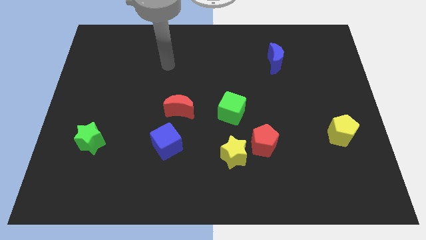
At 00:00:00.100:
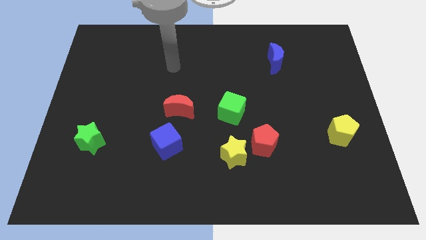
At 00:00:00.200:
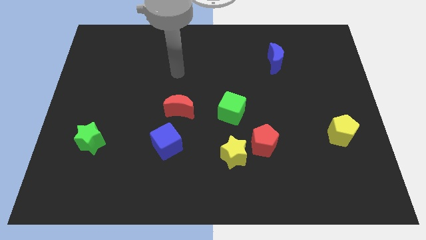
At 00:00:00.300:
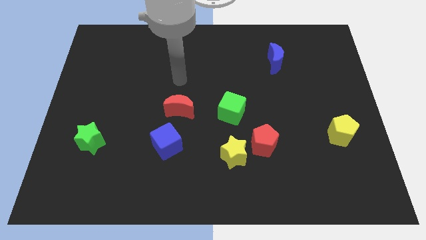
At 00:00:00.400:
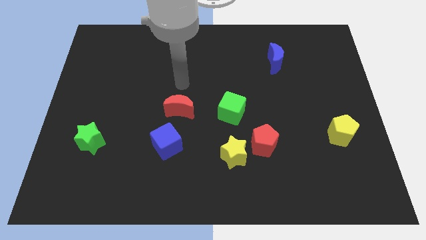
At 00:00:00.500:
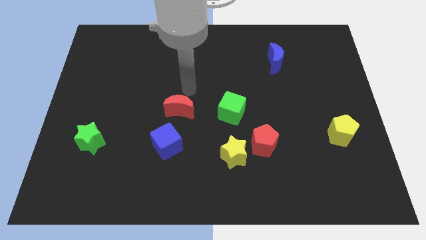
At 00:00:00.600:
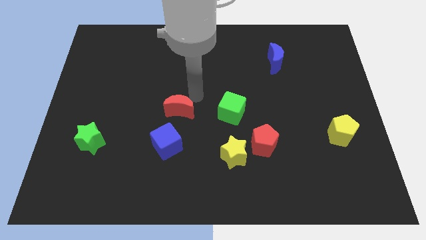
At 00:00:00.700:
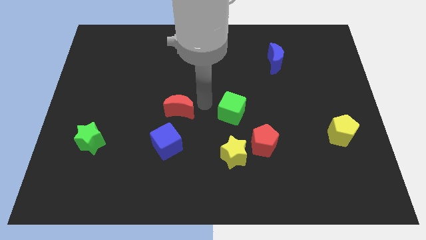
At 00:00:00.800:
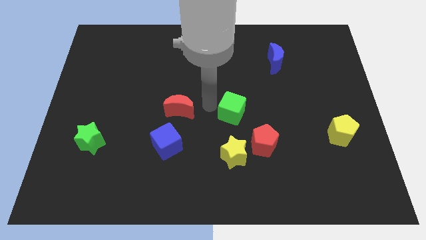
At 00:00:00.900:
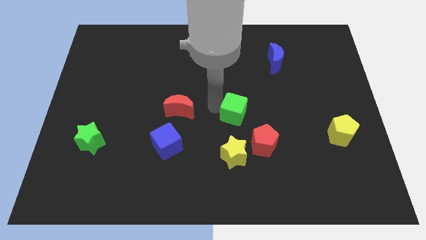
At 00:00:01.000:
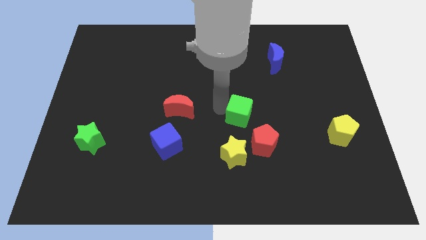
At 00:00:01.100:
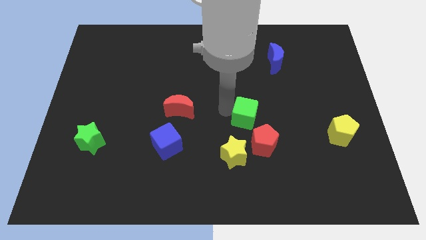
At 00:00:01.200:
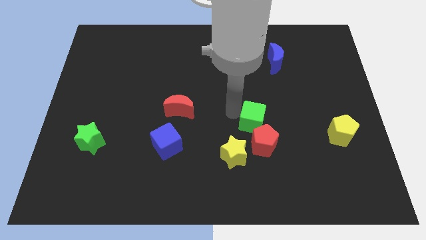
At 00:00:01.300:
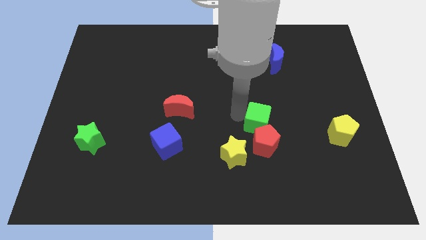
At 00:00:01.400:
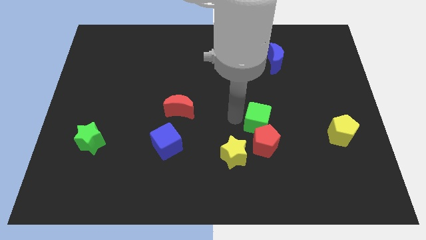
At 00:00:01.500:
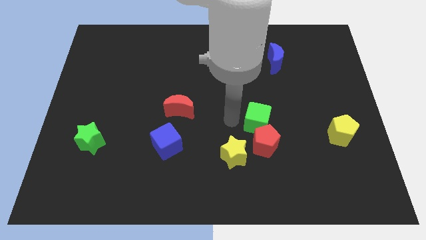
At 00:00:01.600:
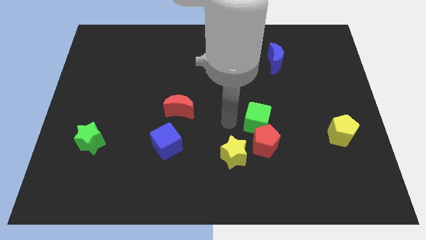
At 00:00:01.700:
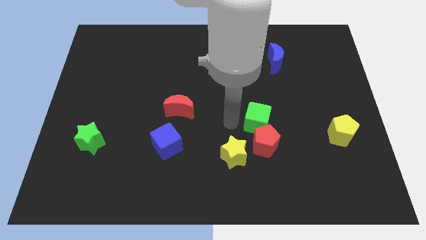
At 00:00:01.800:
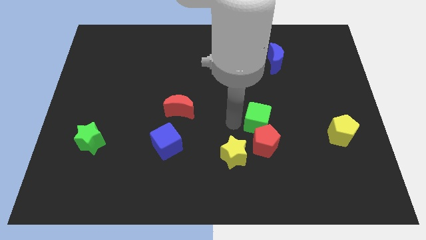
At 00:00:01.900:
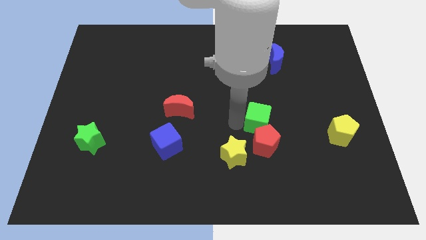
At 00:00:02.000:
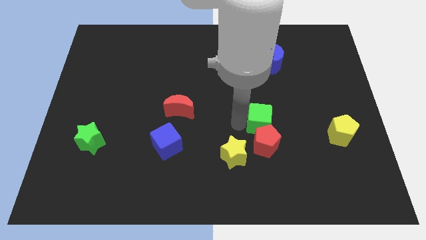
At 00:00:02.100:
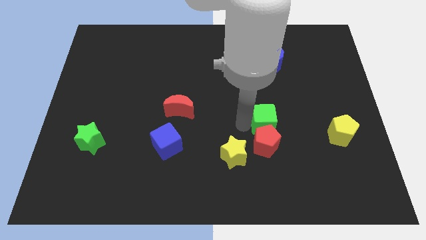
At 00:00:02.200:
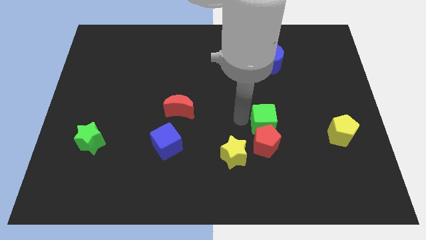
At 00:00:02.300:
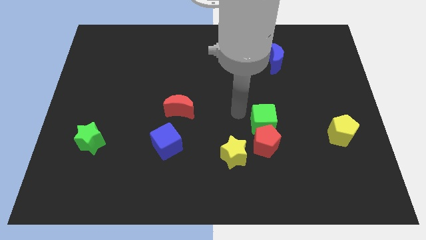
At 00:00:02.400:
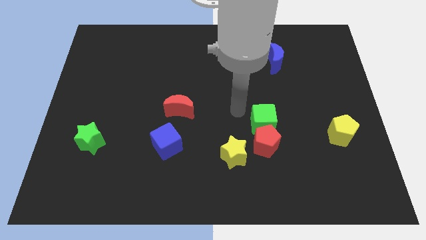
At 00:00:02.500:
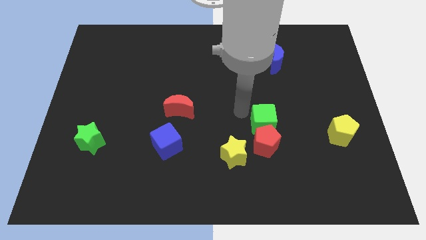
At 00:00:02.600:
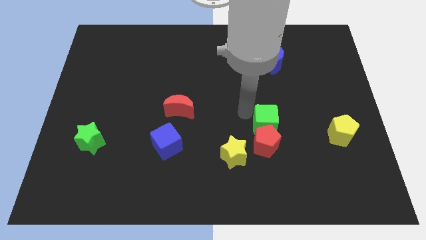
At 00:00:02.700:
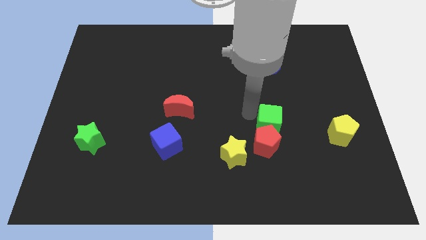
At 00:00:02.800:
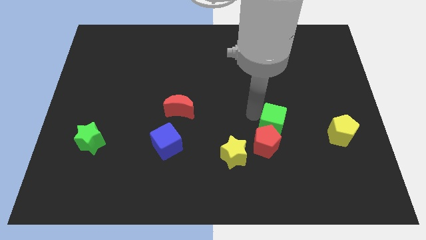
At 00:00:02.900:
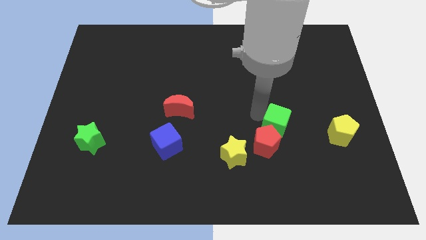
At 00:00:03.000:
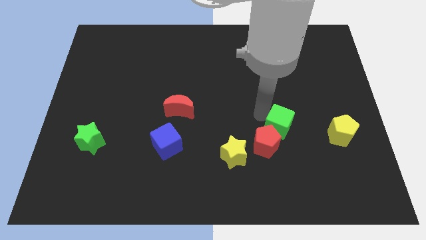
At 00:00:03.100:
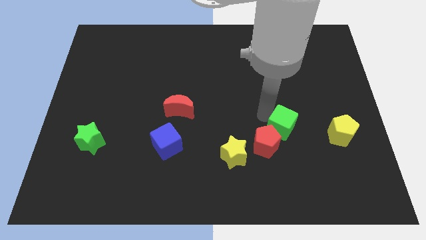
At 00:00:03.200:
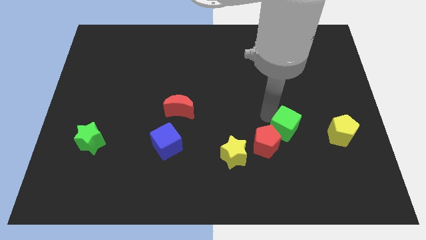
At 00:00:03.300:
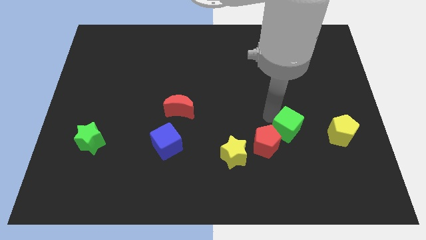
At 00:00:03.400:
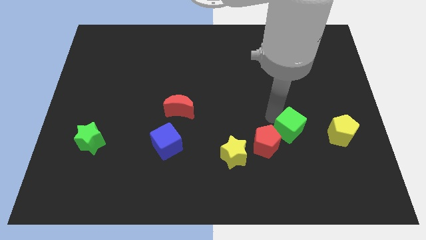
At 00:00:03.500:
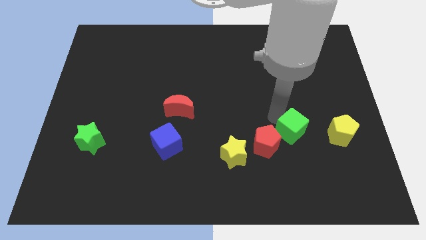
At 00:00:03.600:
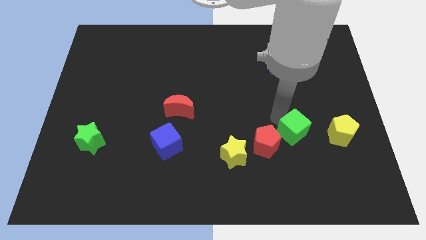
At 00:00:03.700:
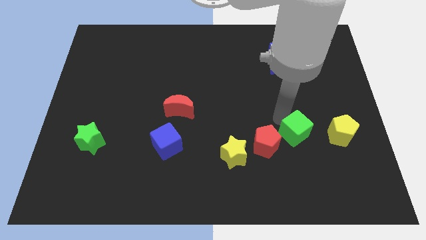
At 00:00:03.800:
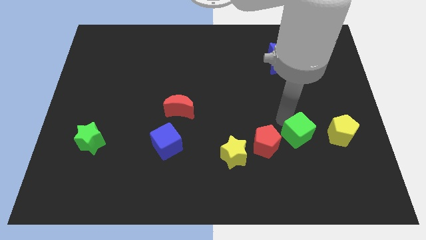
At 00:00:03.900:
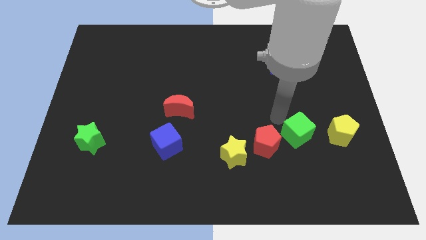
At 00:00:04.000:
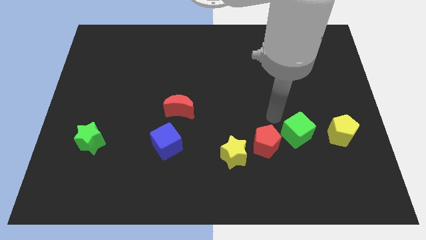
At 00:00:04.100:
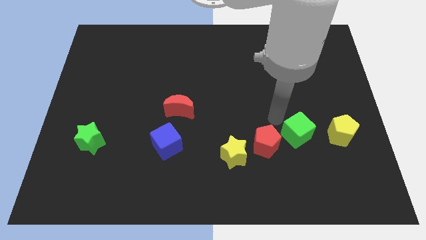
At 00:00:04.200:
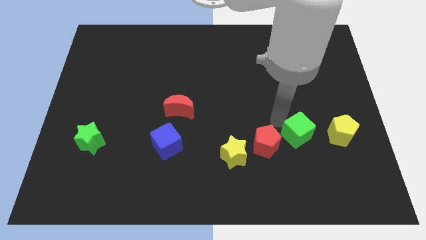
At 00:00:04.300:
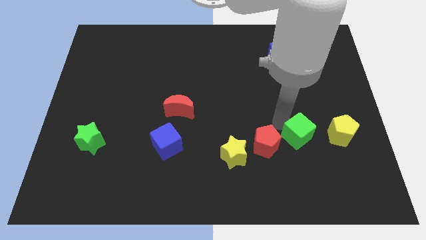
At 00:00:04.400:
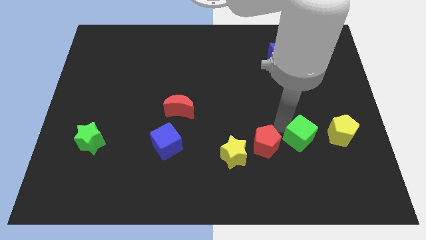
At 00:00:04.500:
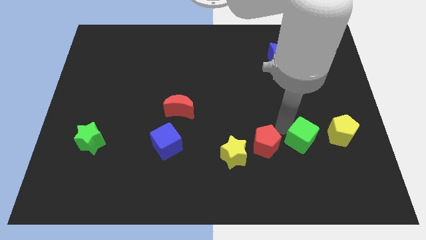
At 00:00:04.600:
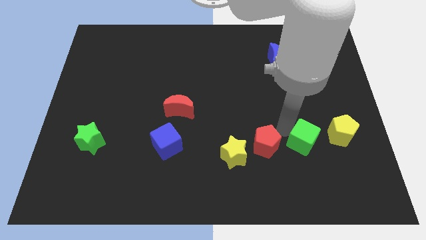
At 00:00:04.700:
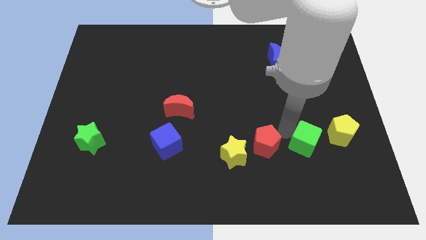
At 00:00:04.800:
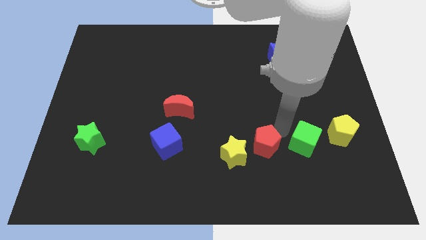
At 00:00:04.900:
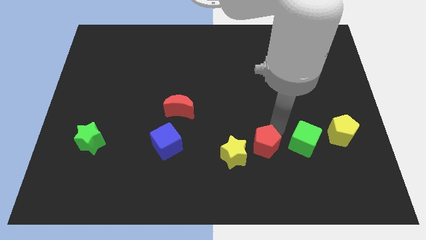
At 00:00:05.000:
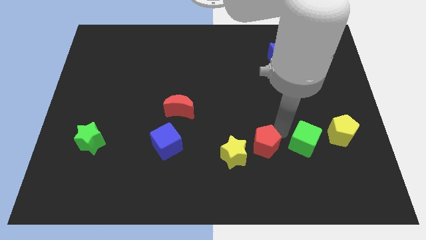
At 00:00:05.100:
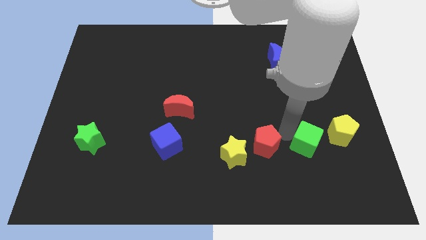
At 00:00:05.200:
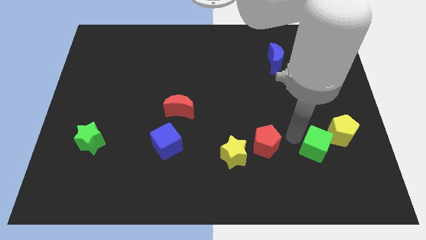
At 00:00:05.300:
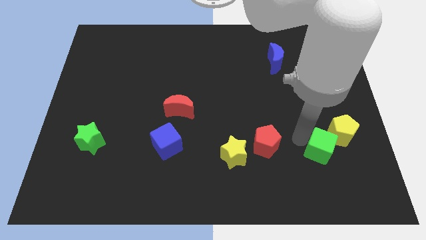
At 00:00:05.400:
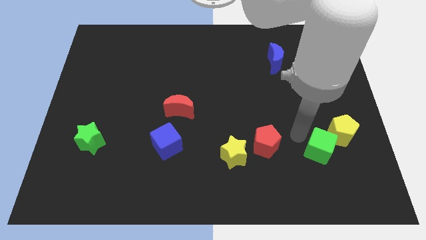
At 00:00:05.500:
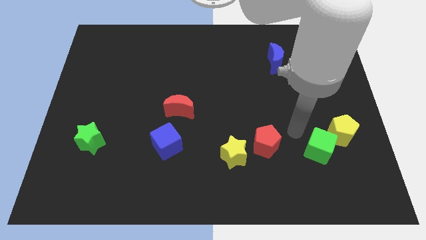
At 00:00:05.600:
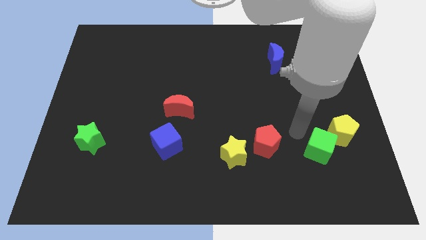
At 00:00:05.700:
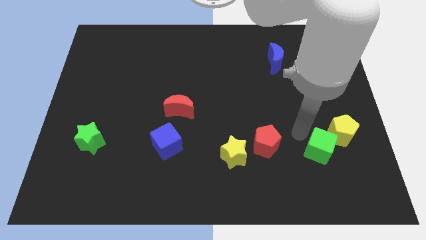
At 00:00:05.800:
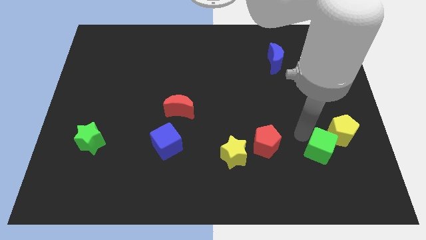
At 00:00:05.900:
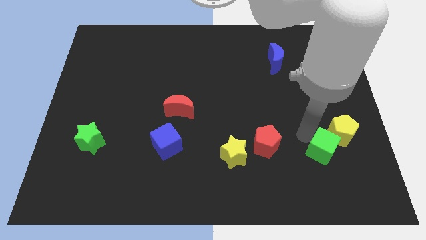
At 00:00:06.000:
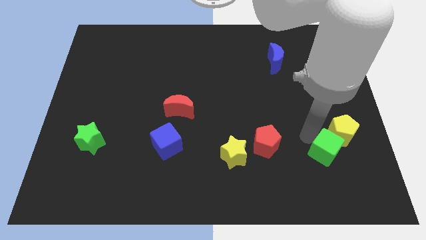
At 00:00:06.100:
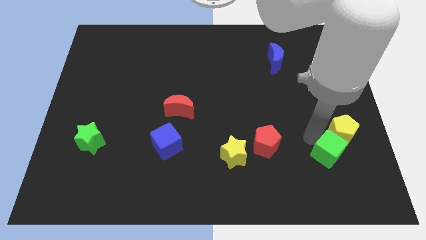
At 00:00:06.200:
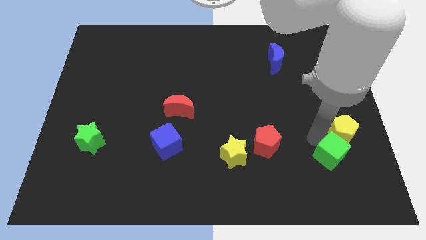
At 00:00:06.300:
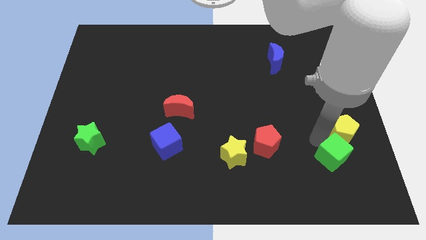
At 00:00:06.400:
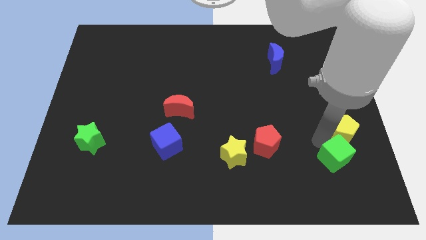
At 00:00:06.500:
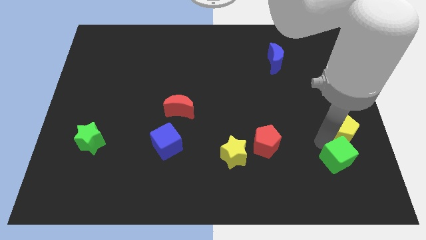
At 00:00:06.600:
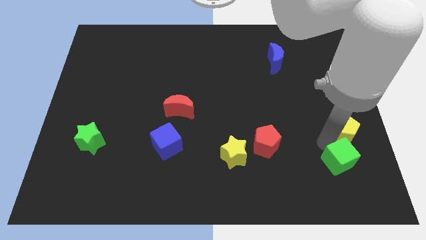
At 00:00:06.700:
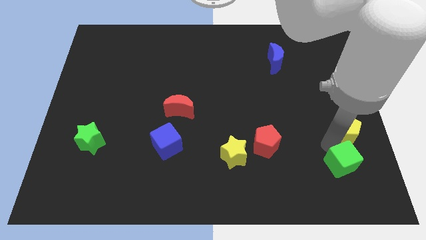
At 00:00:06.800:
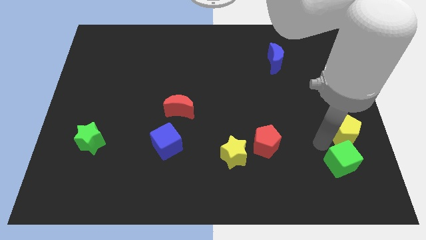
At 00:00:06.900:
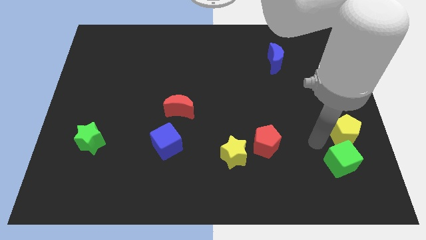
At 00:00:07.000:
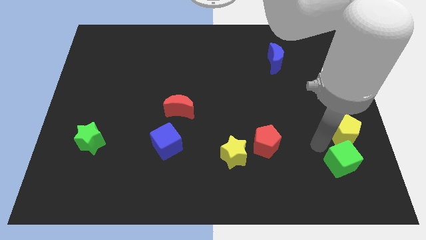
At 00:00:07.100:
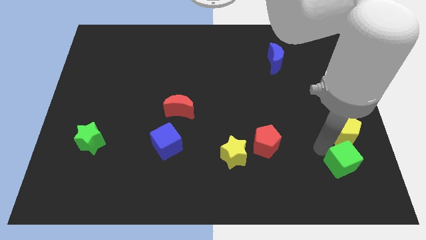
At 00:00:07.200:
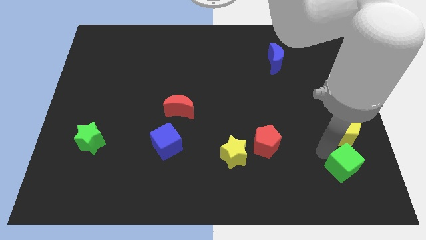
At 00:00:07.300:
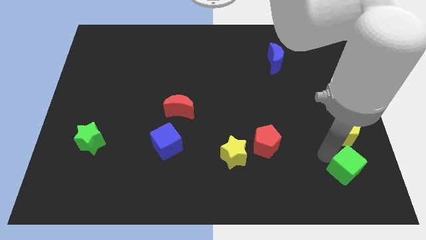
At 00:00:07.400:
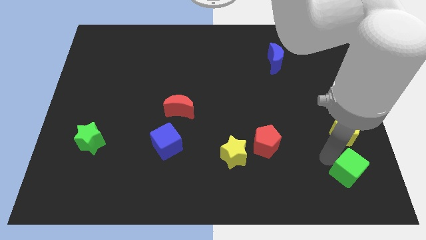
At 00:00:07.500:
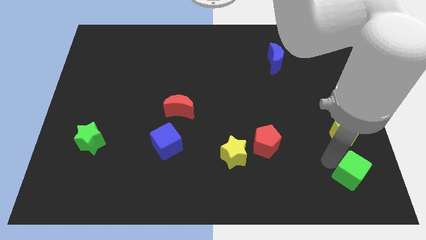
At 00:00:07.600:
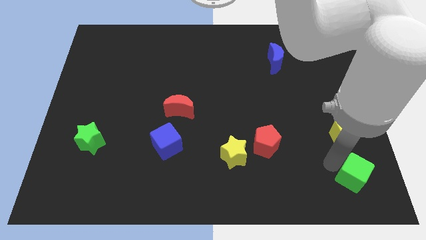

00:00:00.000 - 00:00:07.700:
move the green cube to the lower right corner
